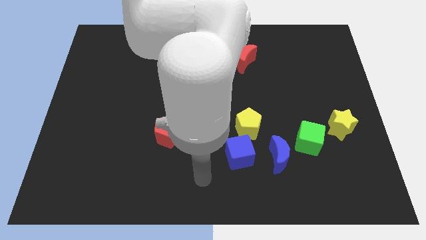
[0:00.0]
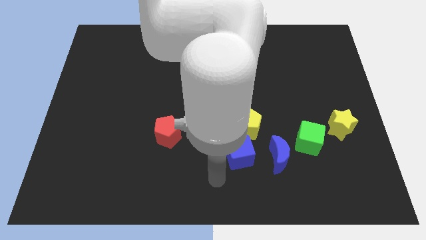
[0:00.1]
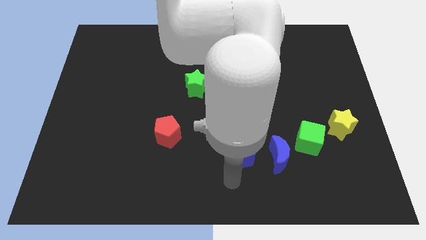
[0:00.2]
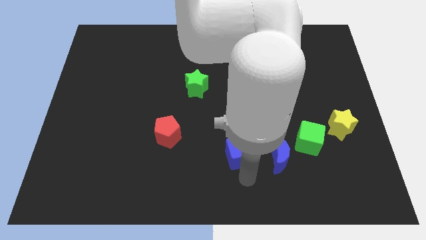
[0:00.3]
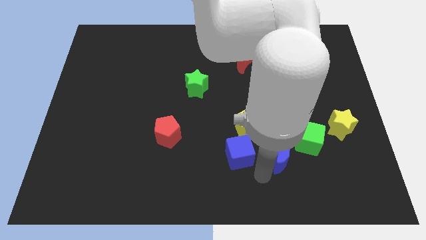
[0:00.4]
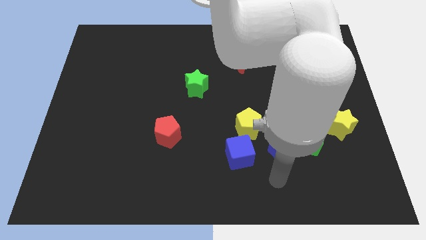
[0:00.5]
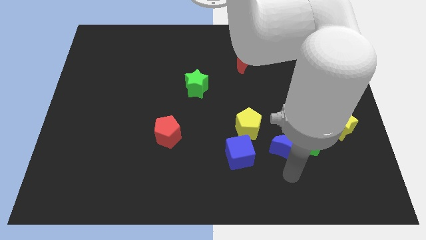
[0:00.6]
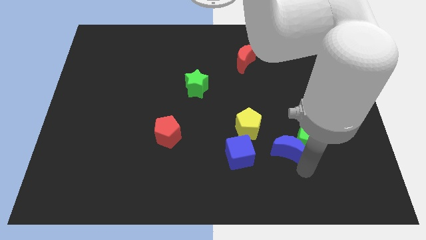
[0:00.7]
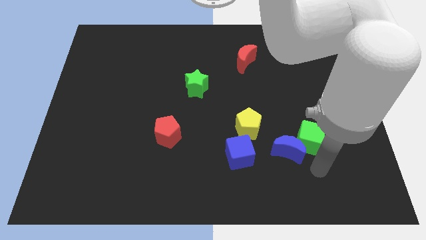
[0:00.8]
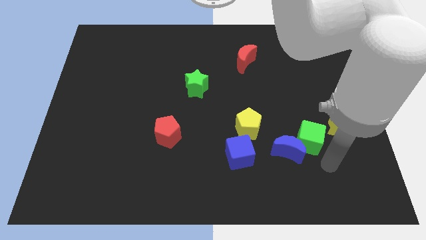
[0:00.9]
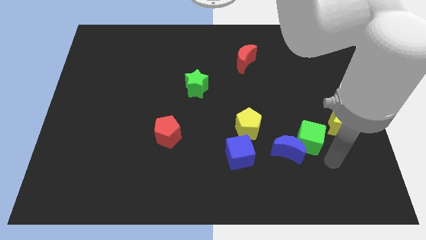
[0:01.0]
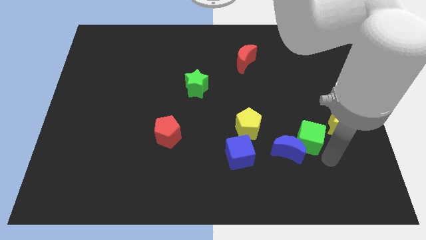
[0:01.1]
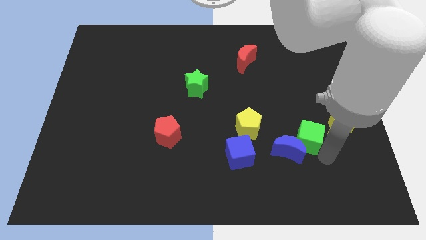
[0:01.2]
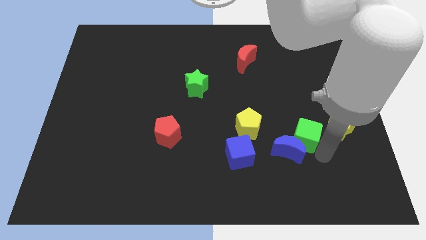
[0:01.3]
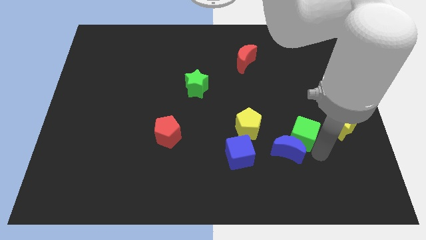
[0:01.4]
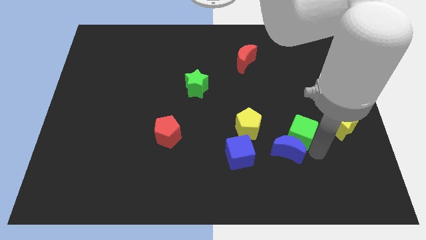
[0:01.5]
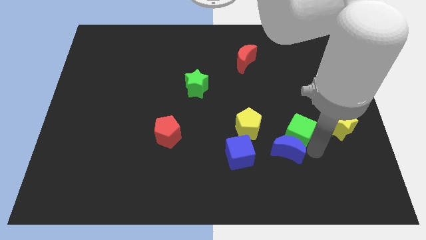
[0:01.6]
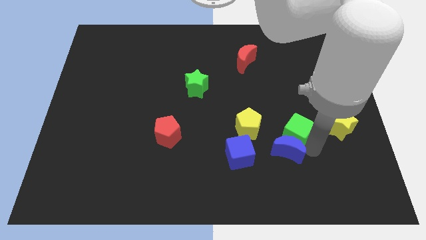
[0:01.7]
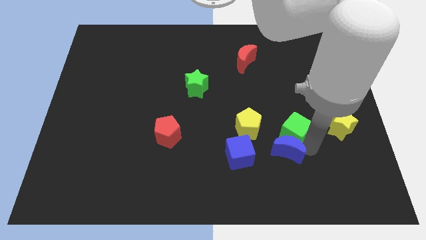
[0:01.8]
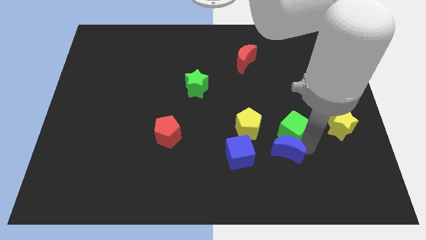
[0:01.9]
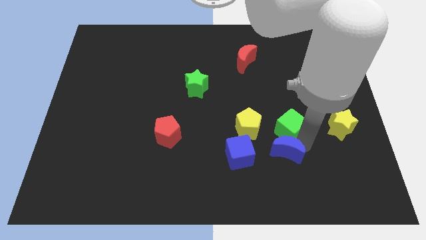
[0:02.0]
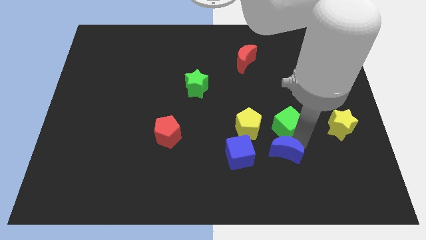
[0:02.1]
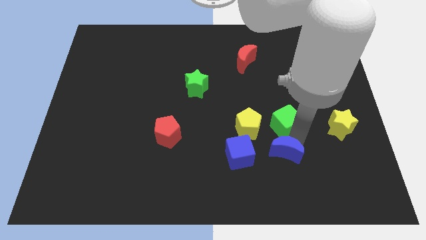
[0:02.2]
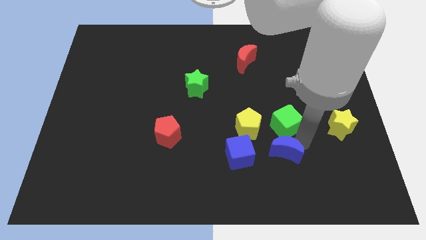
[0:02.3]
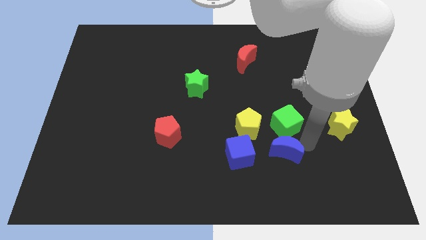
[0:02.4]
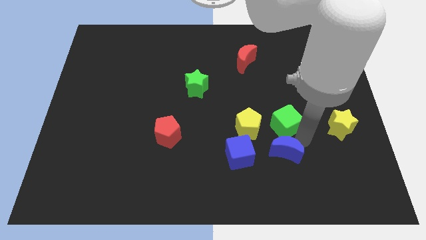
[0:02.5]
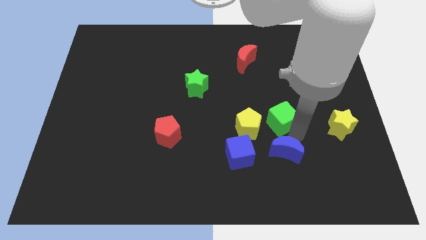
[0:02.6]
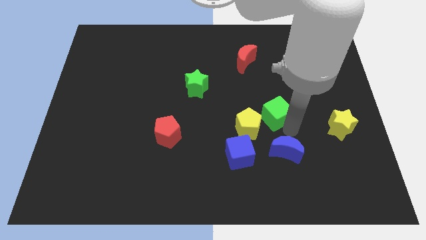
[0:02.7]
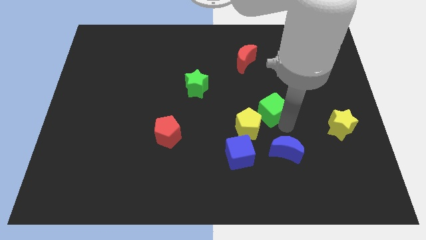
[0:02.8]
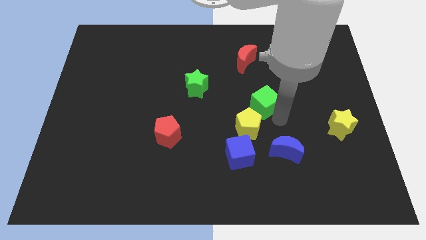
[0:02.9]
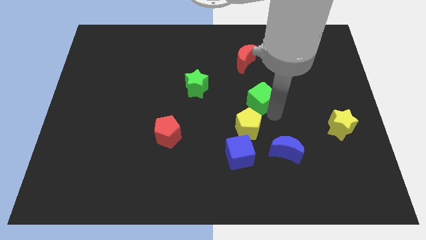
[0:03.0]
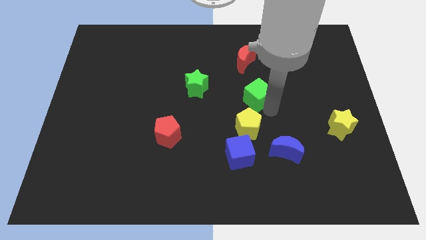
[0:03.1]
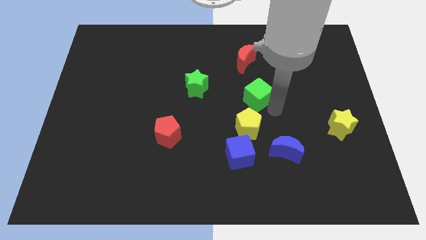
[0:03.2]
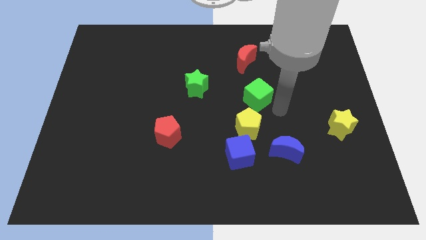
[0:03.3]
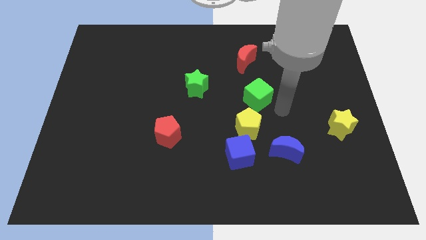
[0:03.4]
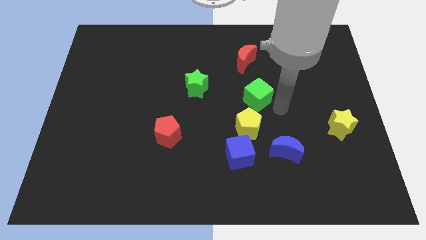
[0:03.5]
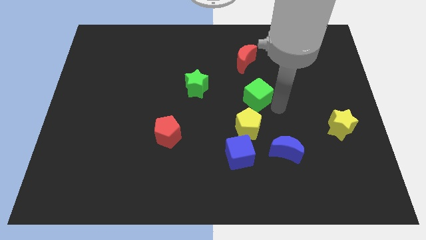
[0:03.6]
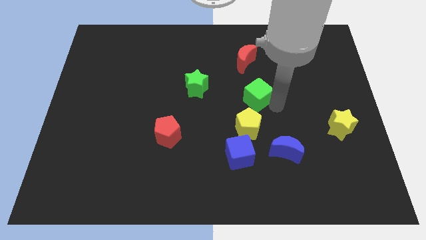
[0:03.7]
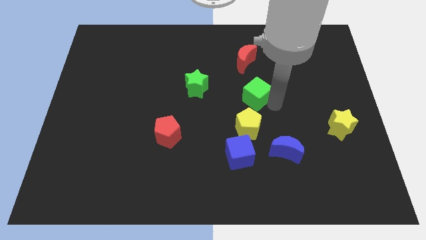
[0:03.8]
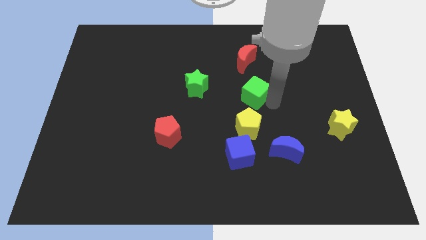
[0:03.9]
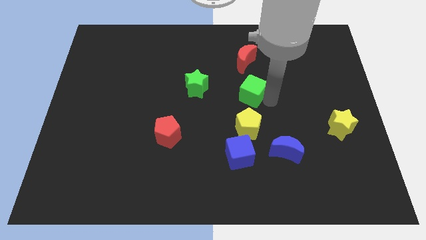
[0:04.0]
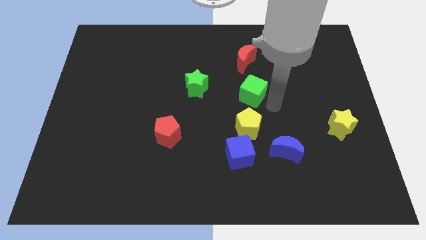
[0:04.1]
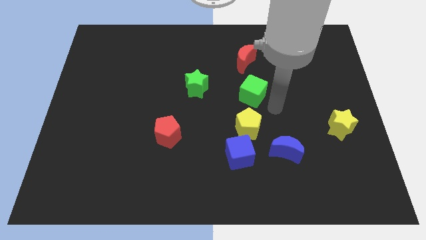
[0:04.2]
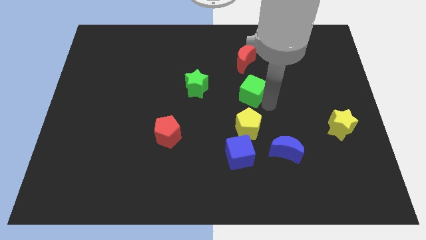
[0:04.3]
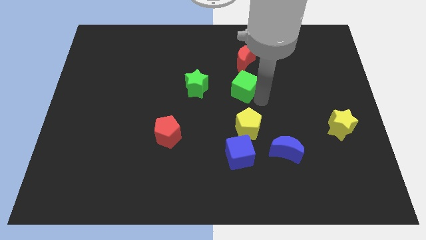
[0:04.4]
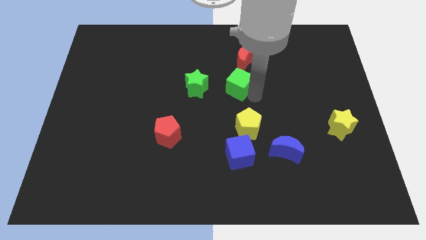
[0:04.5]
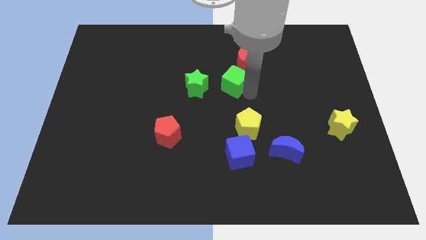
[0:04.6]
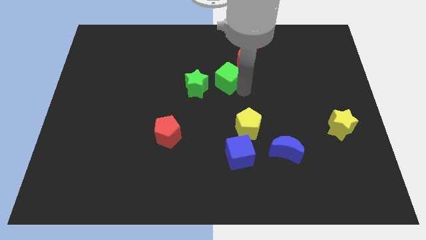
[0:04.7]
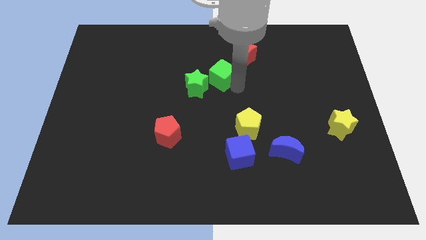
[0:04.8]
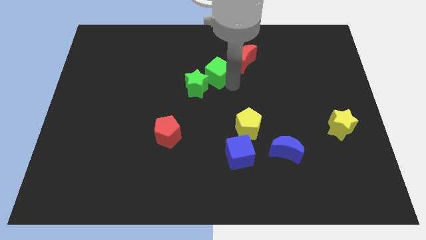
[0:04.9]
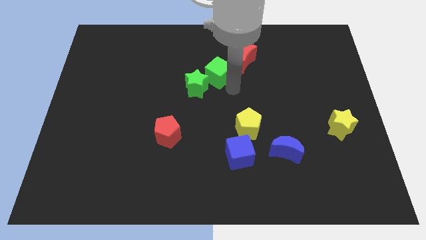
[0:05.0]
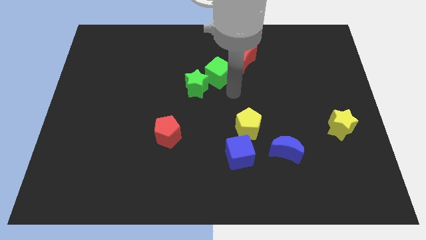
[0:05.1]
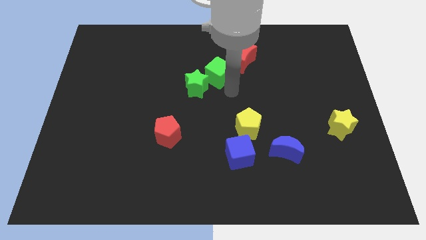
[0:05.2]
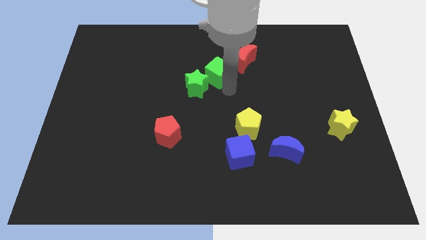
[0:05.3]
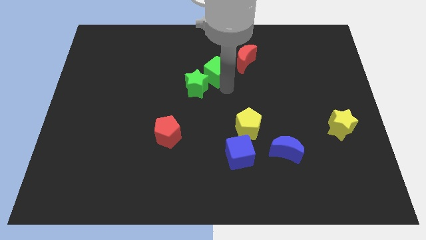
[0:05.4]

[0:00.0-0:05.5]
put the green cube just left of the red moon

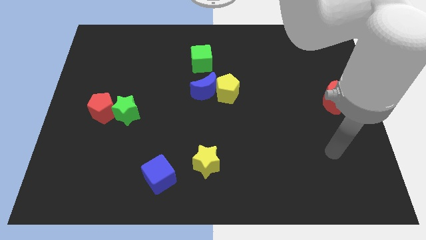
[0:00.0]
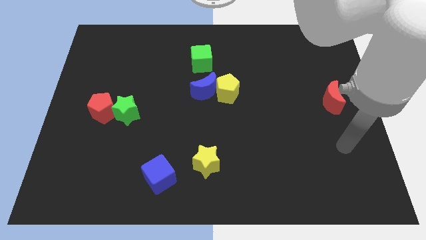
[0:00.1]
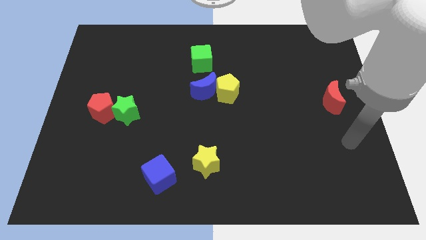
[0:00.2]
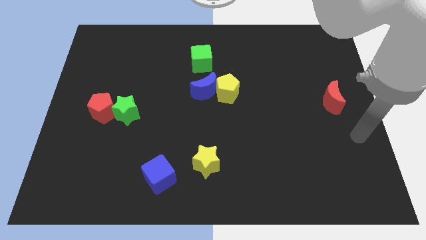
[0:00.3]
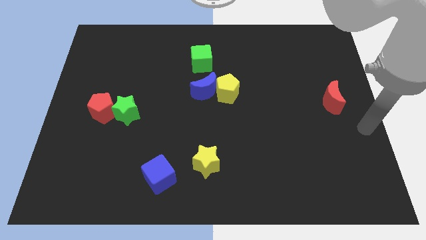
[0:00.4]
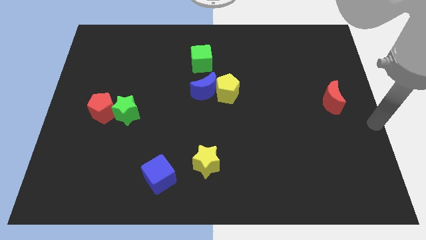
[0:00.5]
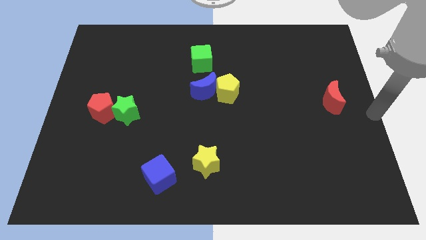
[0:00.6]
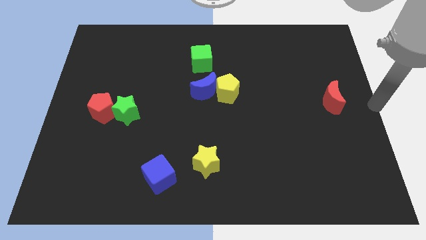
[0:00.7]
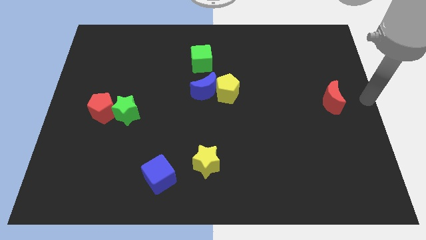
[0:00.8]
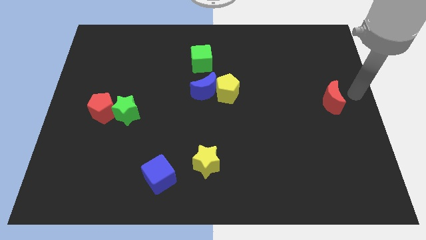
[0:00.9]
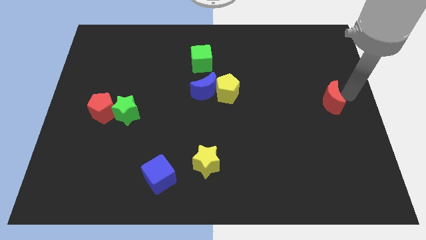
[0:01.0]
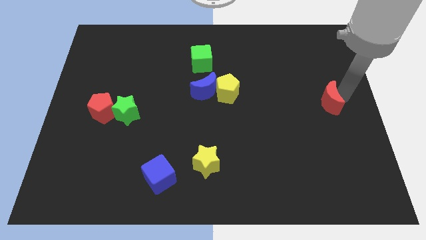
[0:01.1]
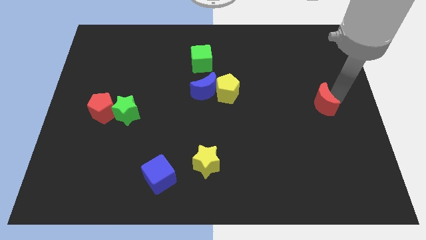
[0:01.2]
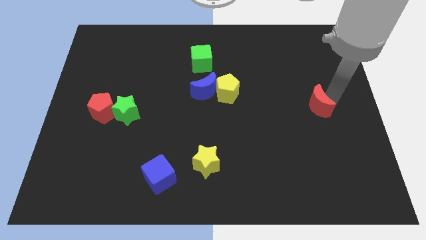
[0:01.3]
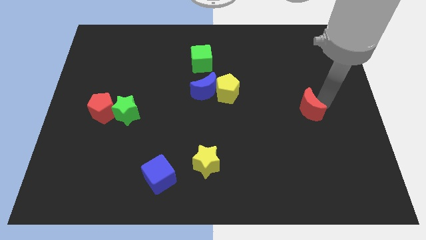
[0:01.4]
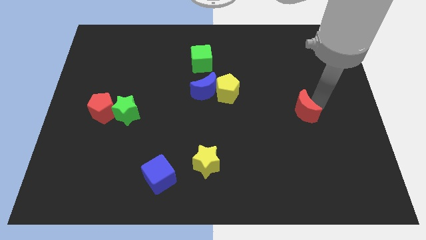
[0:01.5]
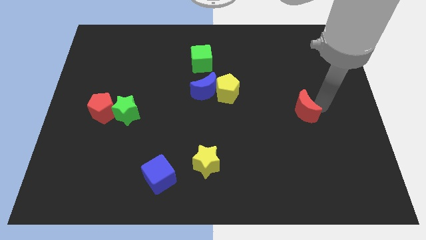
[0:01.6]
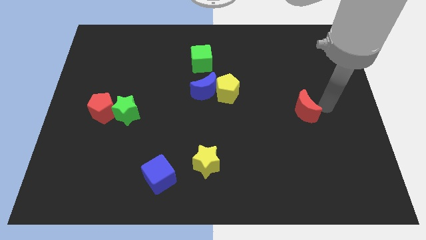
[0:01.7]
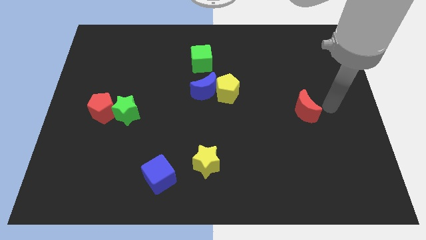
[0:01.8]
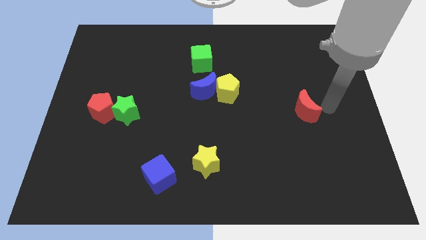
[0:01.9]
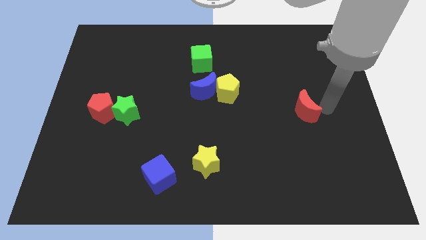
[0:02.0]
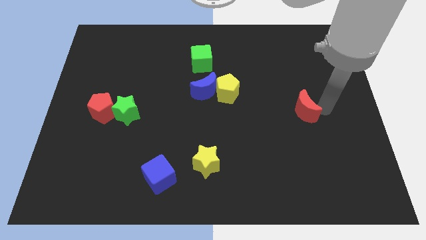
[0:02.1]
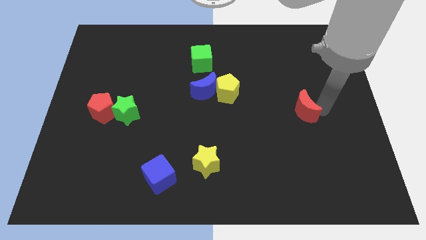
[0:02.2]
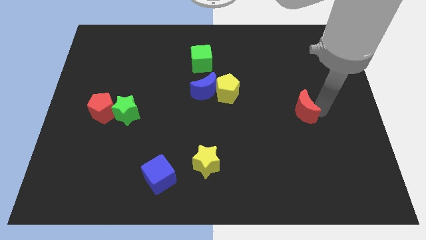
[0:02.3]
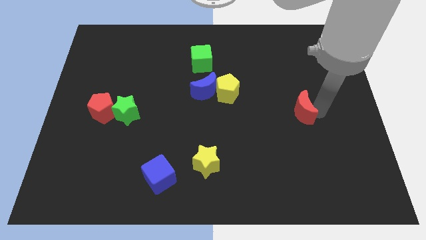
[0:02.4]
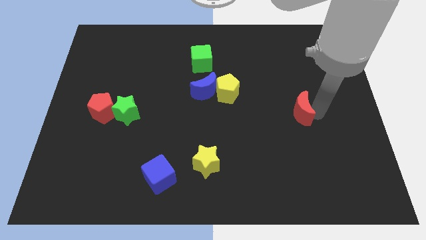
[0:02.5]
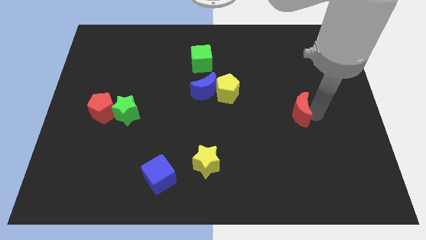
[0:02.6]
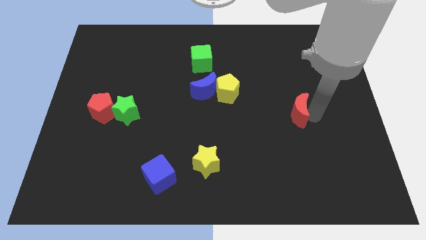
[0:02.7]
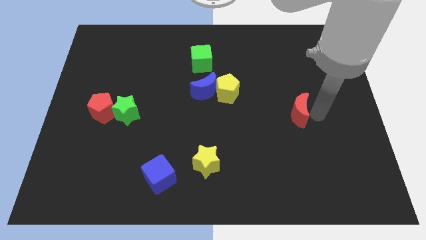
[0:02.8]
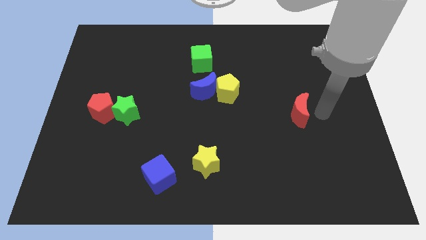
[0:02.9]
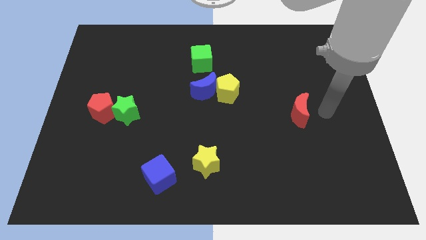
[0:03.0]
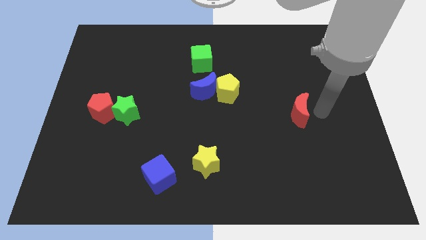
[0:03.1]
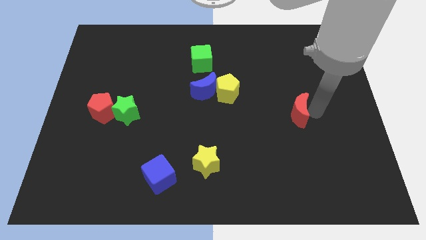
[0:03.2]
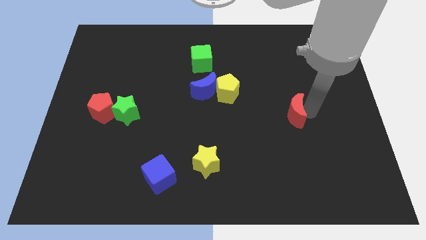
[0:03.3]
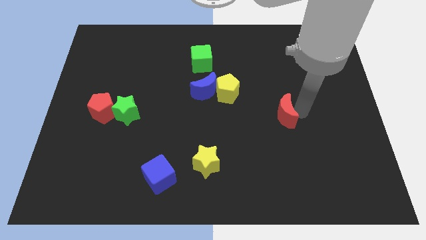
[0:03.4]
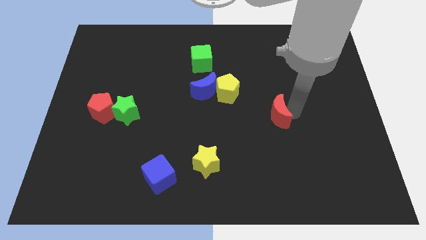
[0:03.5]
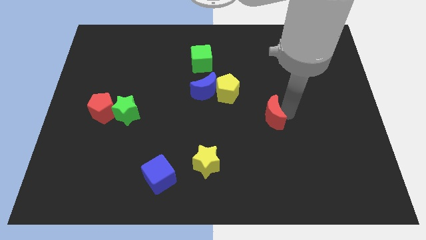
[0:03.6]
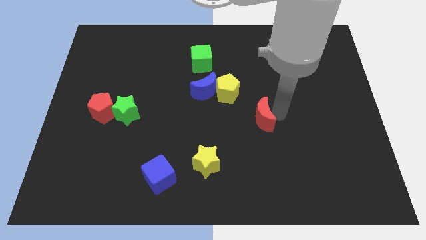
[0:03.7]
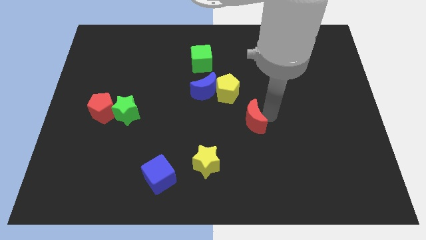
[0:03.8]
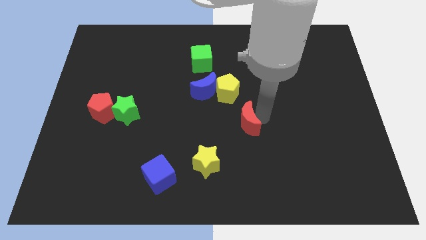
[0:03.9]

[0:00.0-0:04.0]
push the red moon to the bottom of the yellow pentagon
